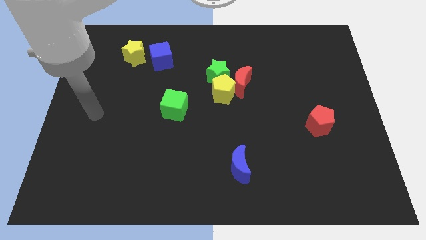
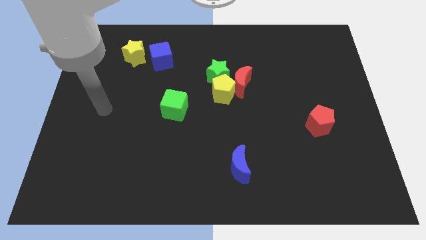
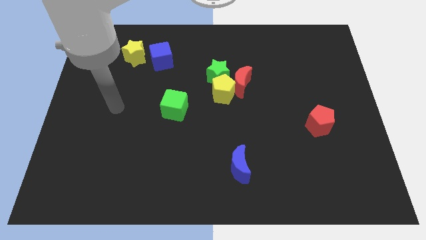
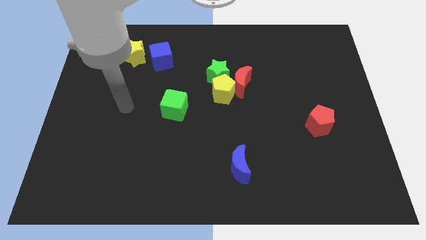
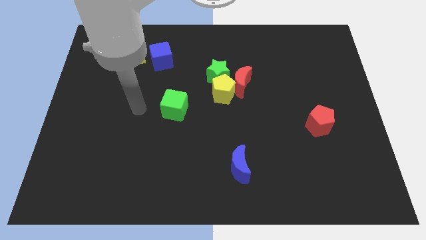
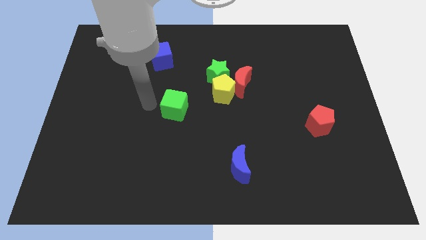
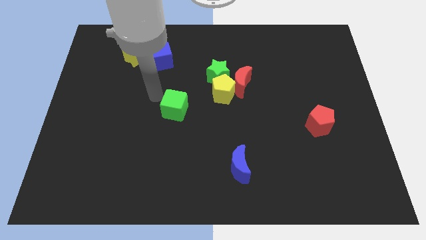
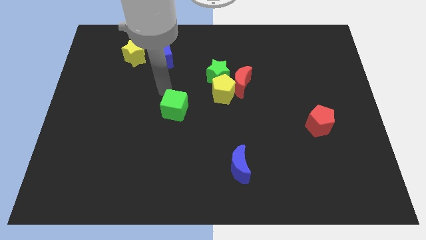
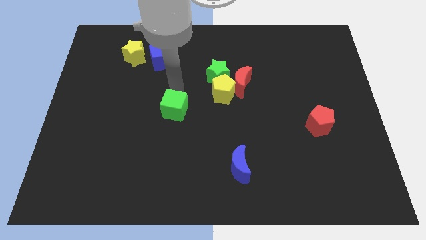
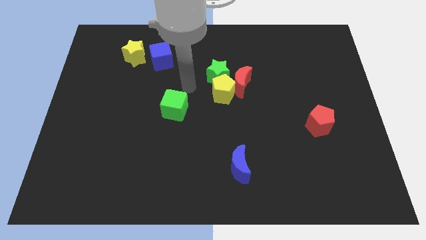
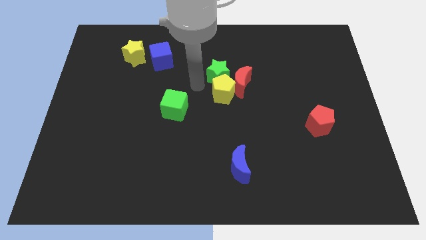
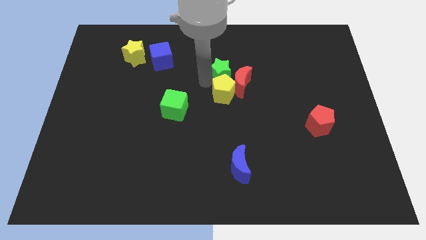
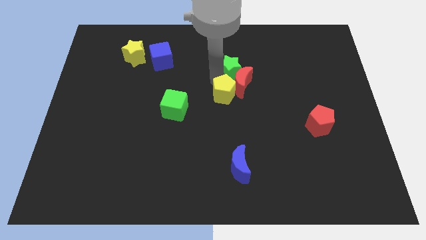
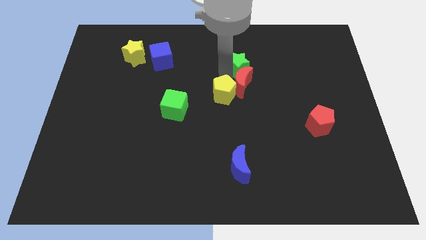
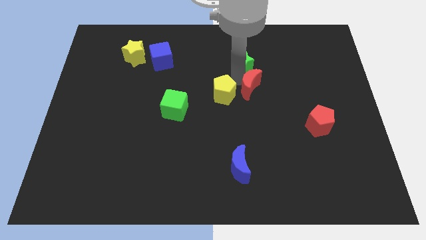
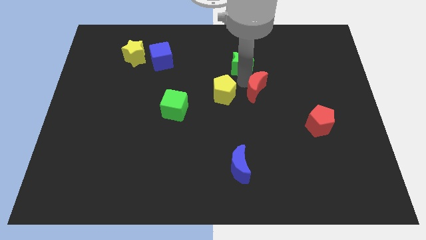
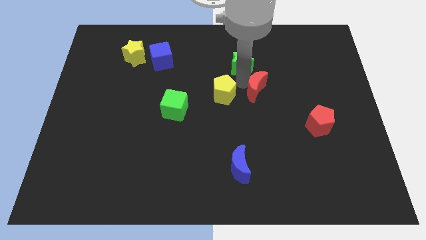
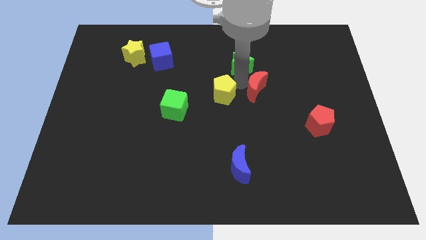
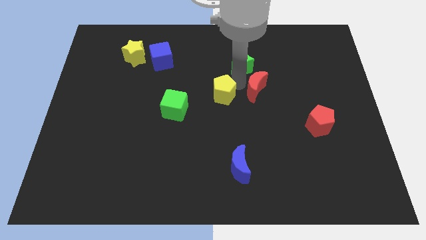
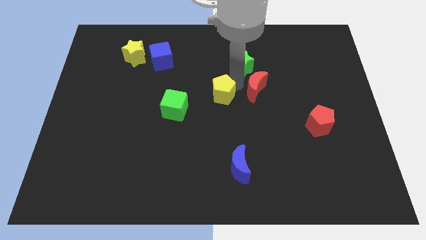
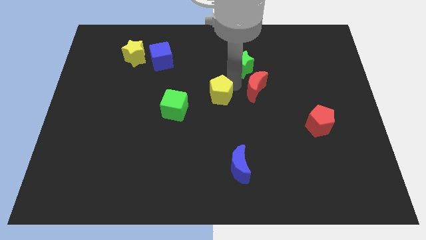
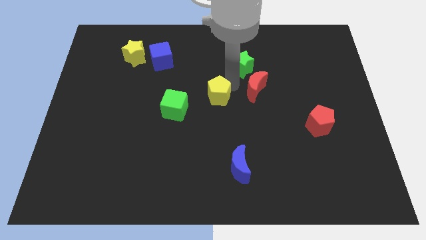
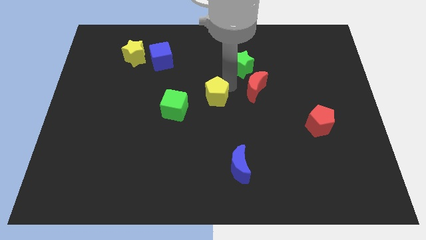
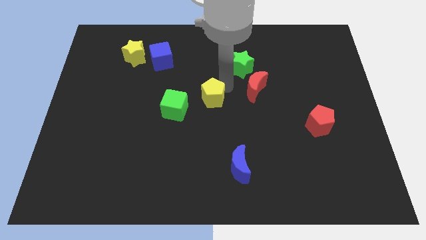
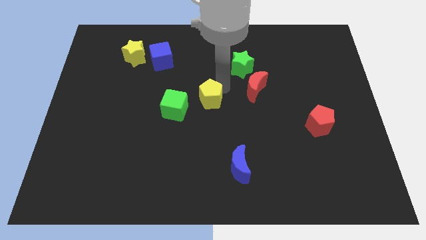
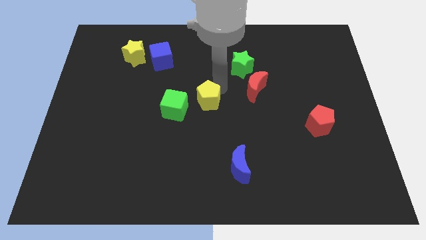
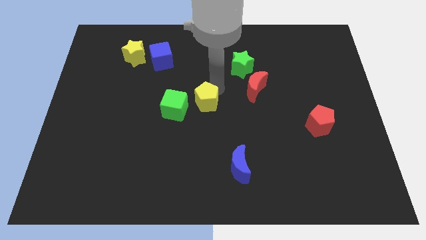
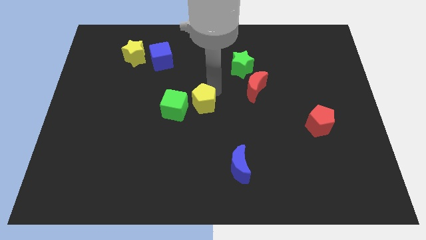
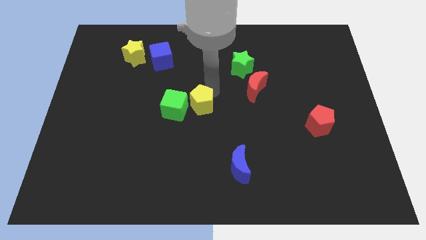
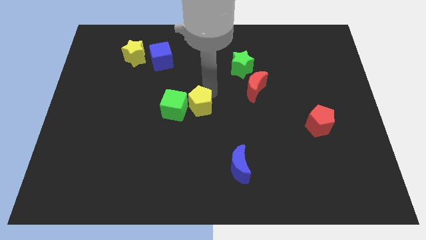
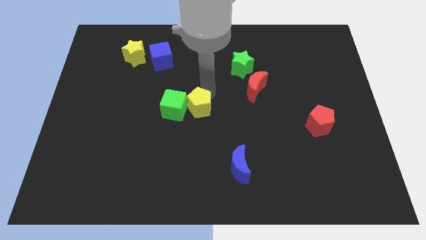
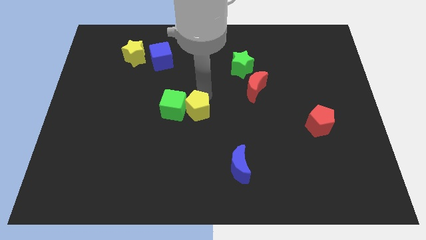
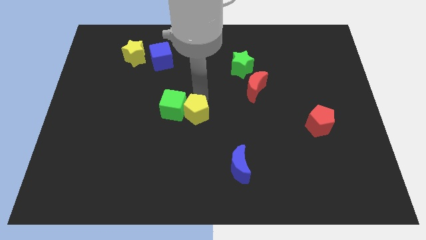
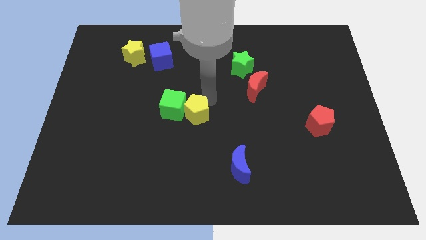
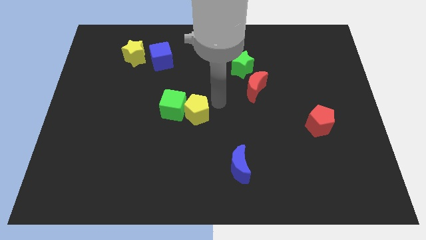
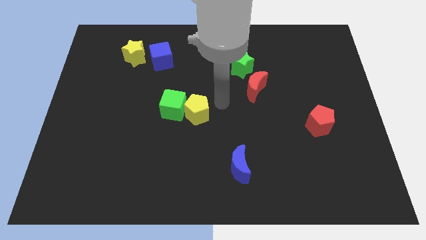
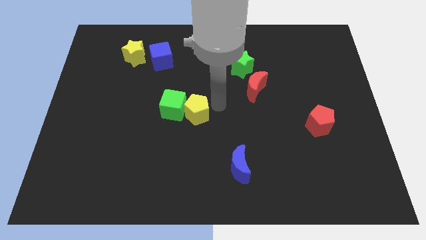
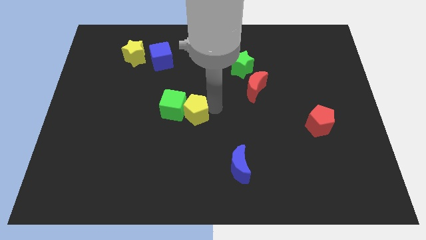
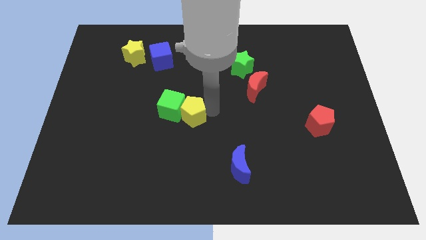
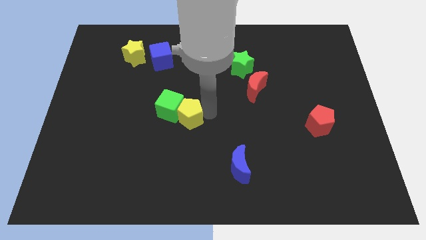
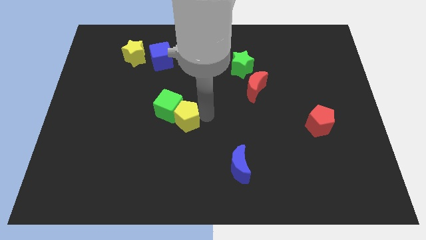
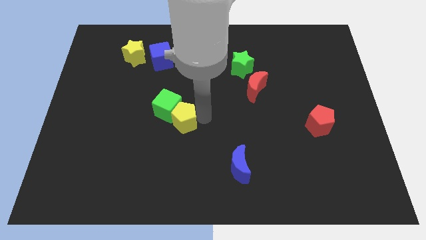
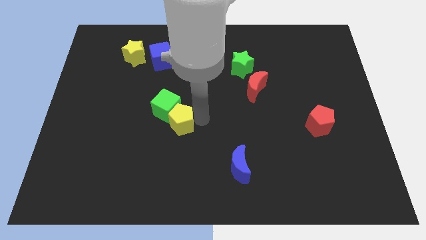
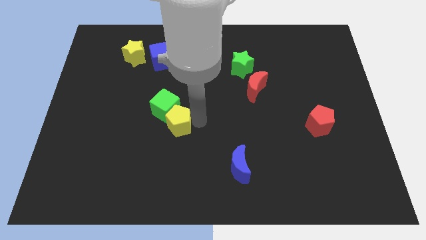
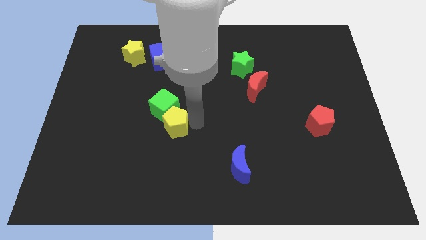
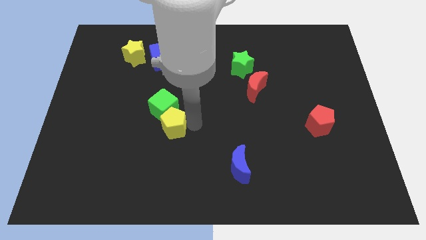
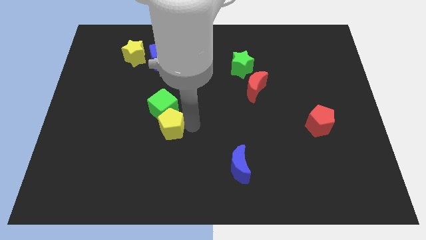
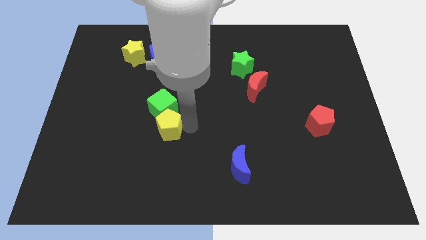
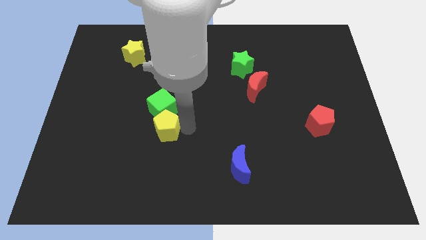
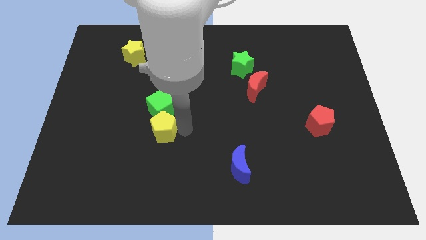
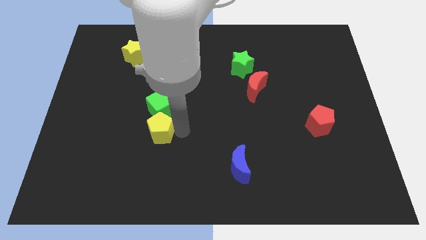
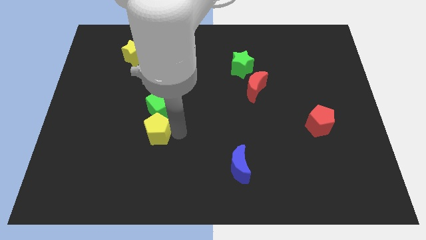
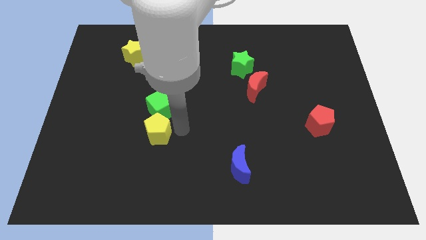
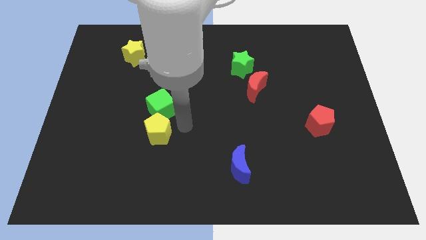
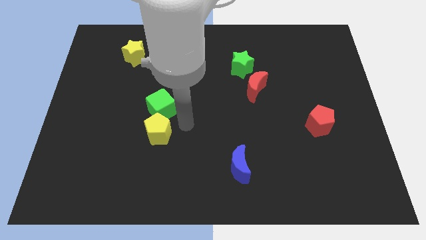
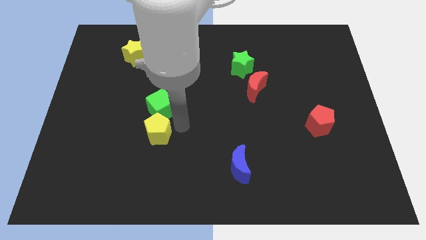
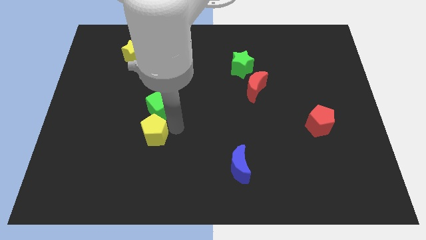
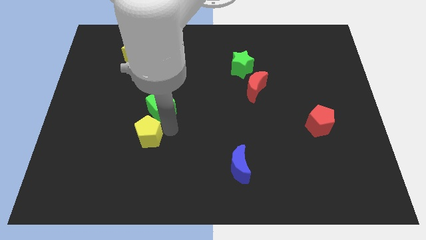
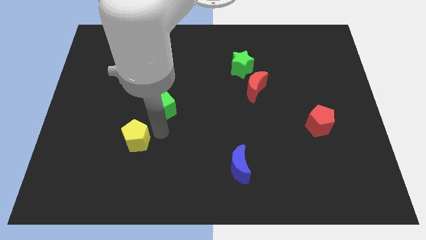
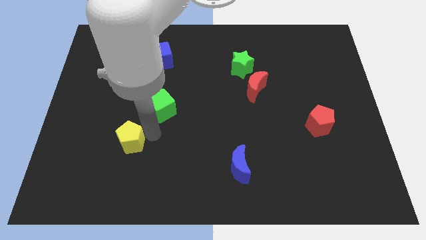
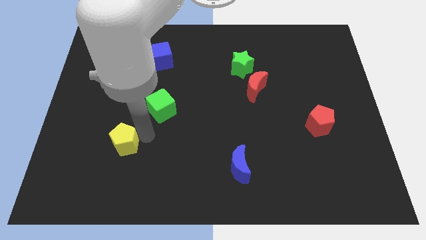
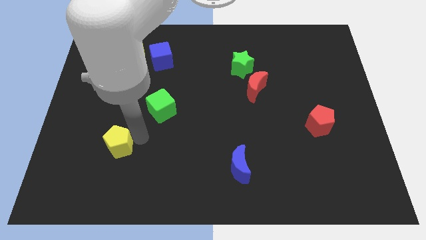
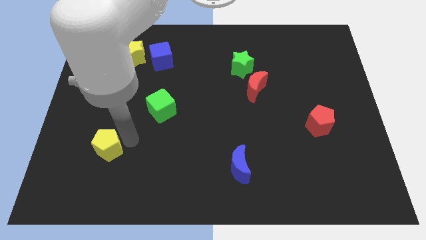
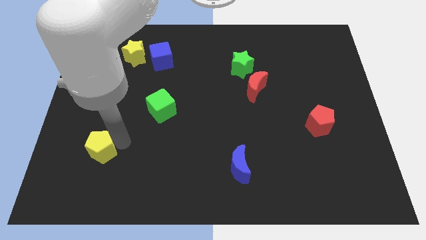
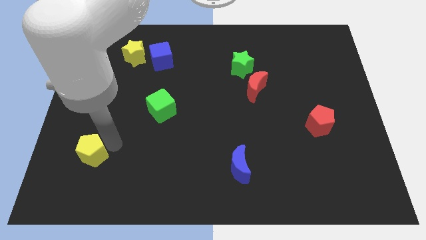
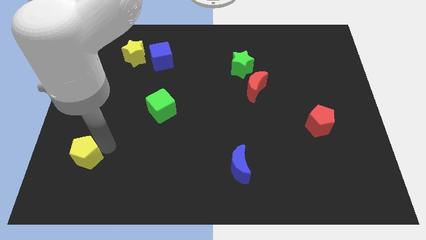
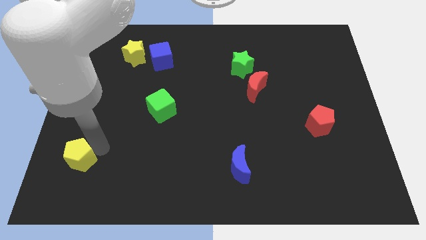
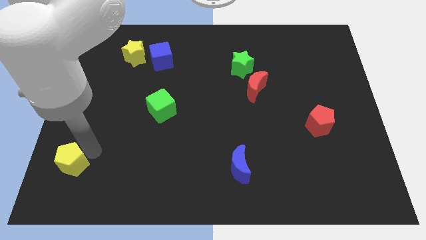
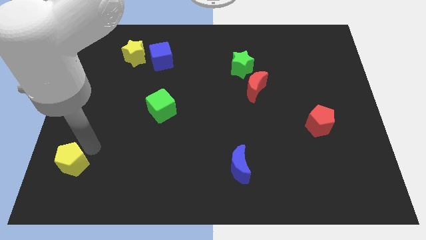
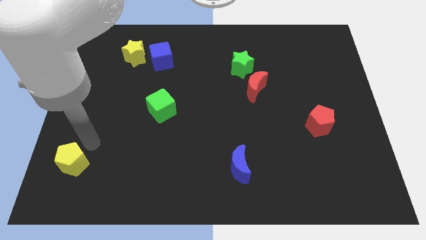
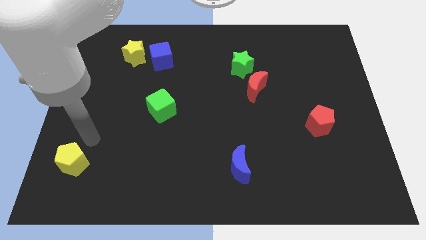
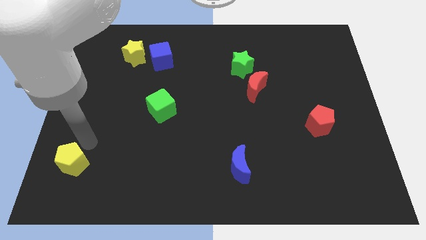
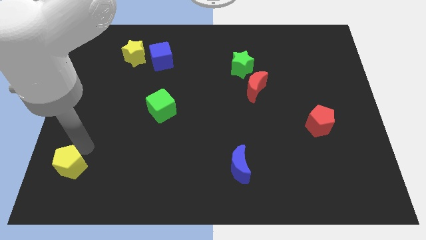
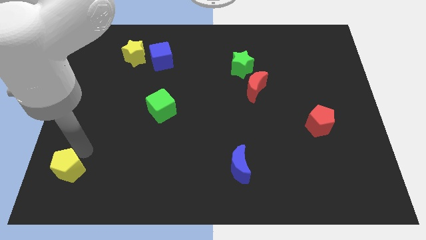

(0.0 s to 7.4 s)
push the yellow pentagon to the bottom left
